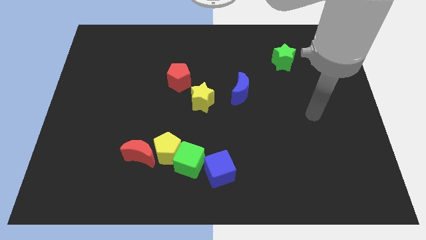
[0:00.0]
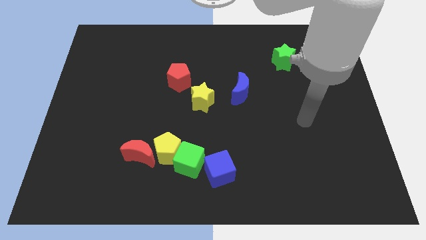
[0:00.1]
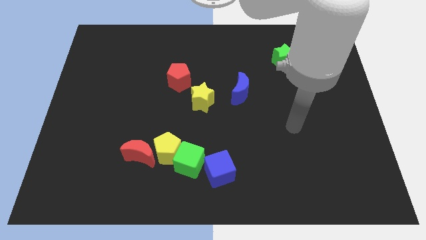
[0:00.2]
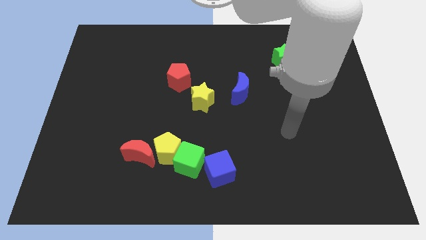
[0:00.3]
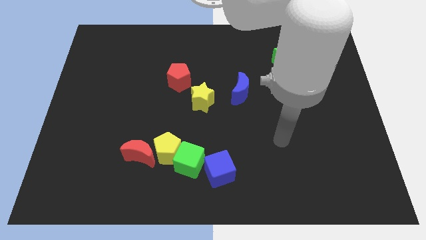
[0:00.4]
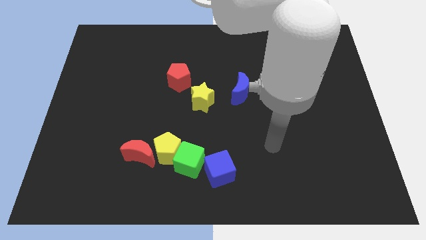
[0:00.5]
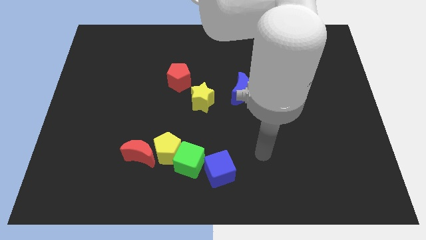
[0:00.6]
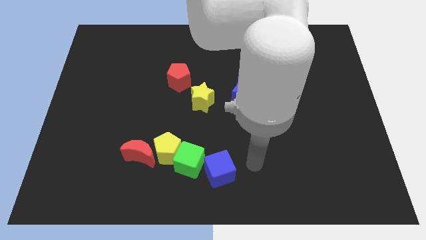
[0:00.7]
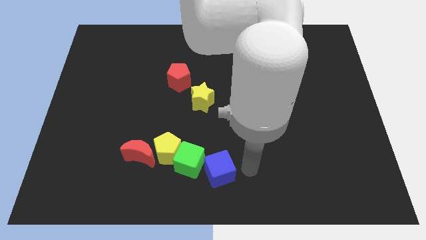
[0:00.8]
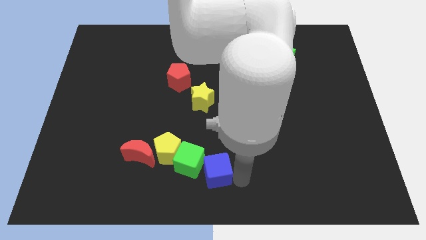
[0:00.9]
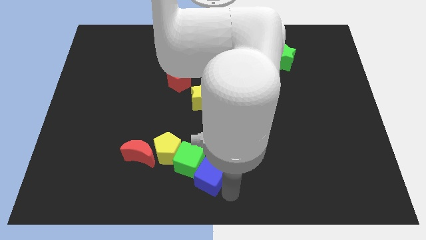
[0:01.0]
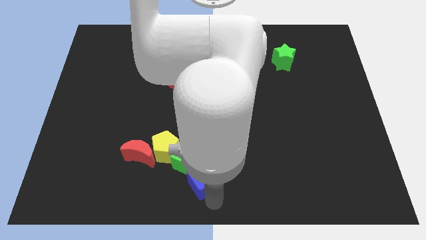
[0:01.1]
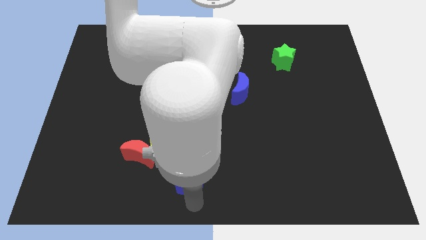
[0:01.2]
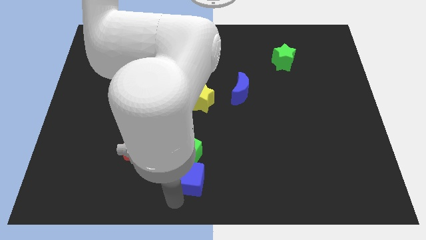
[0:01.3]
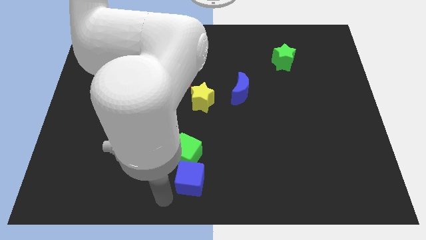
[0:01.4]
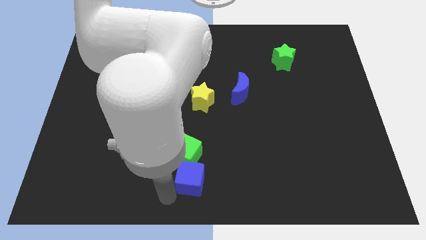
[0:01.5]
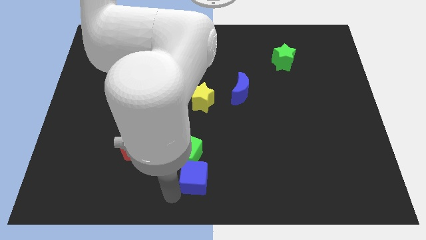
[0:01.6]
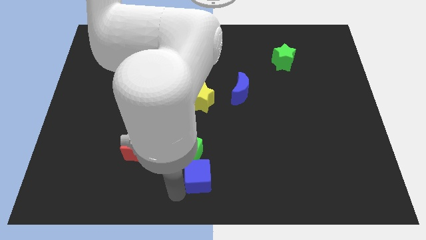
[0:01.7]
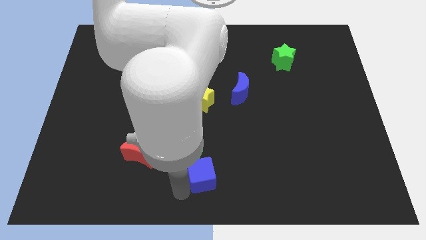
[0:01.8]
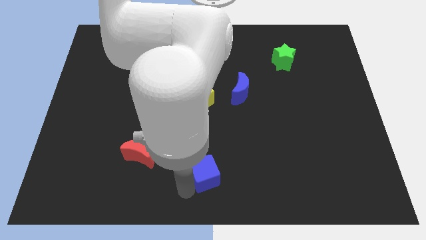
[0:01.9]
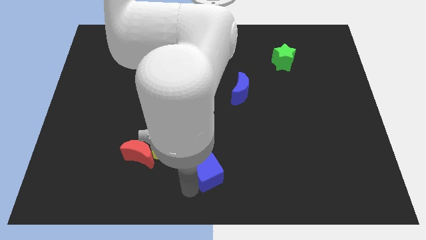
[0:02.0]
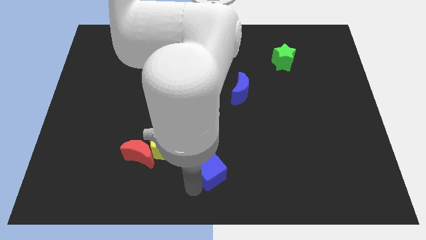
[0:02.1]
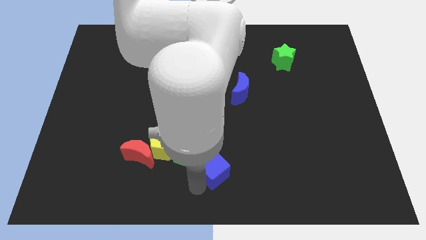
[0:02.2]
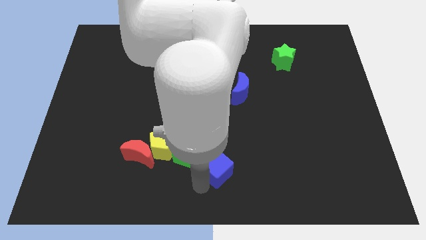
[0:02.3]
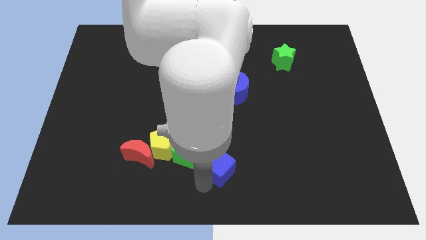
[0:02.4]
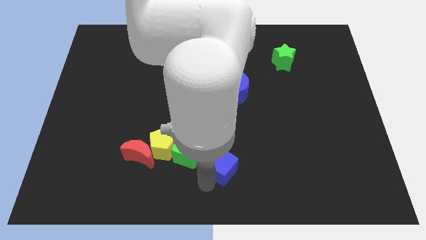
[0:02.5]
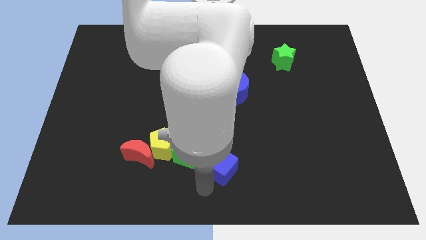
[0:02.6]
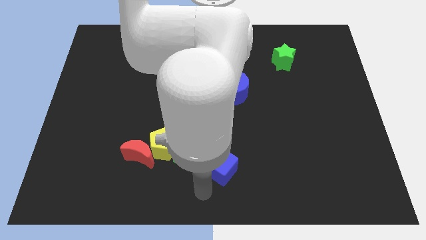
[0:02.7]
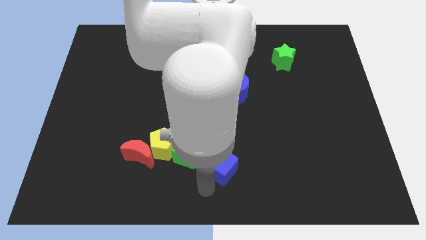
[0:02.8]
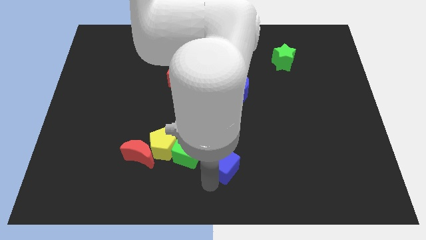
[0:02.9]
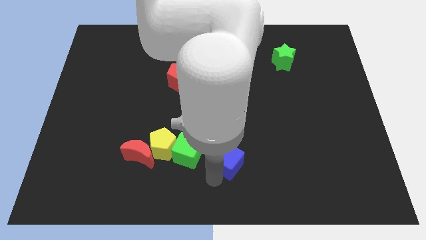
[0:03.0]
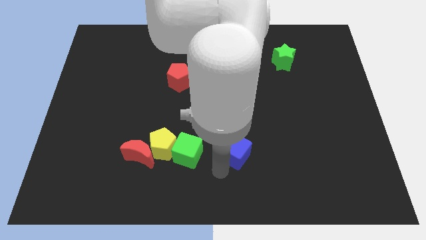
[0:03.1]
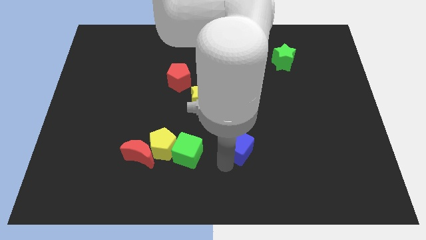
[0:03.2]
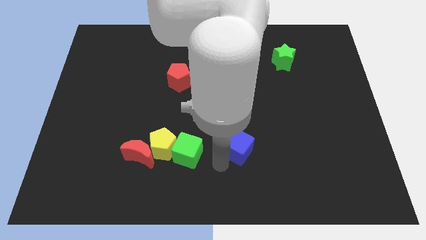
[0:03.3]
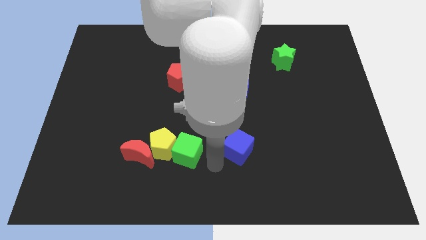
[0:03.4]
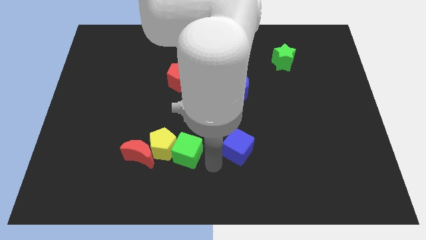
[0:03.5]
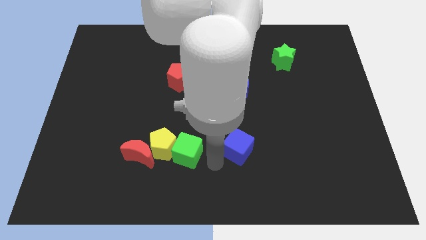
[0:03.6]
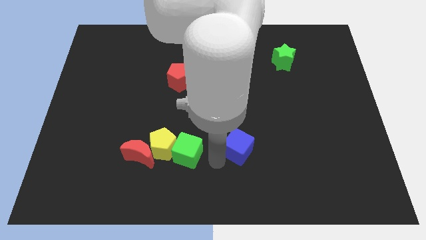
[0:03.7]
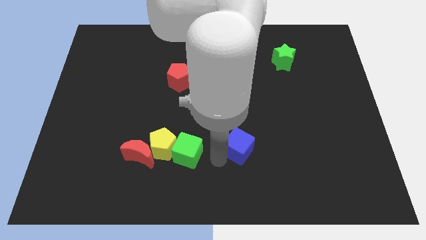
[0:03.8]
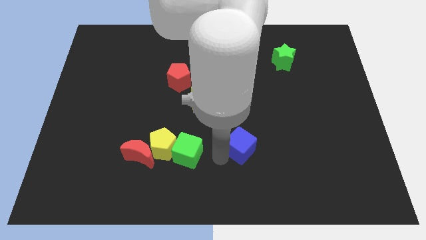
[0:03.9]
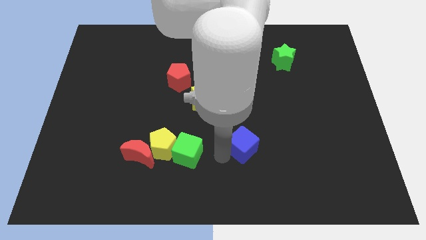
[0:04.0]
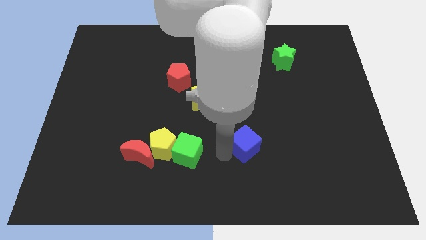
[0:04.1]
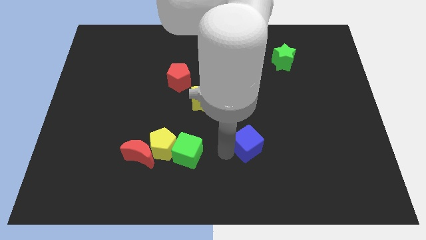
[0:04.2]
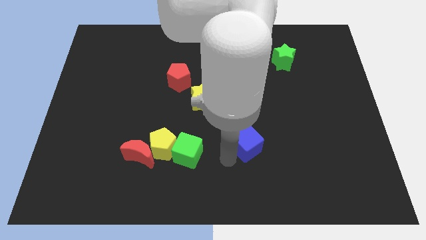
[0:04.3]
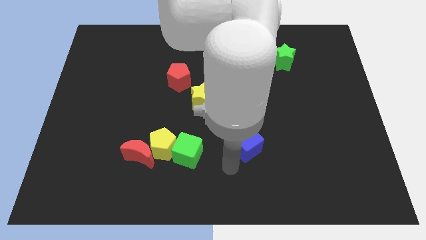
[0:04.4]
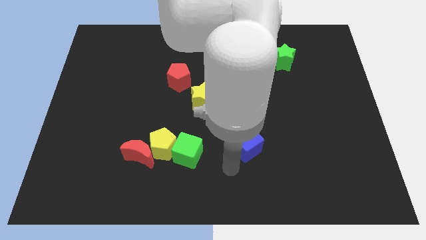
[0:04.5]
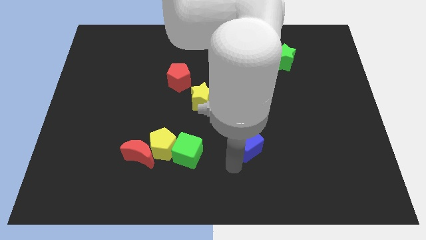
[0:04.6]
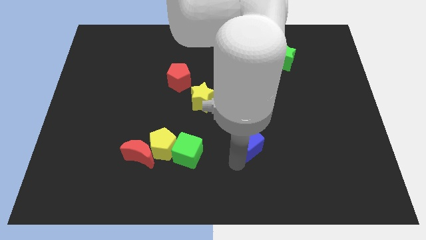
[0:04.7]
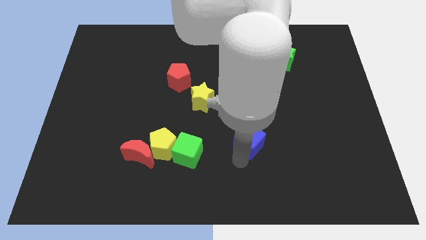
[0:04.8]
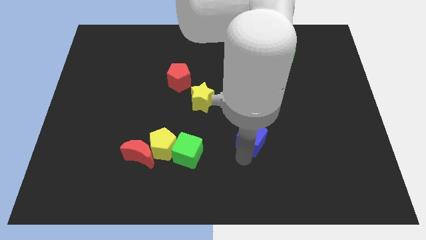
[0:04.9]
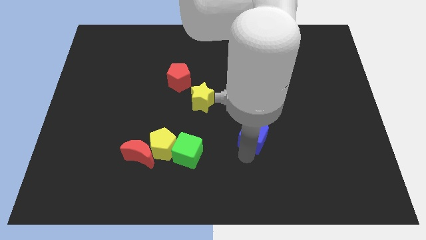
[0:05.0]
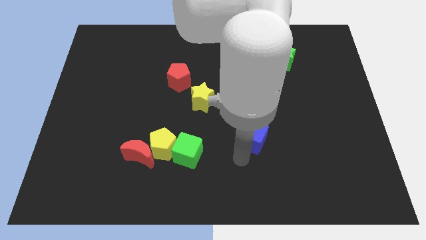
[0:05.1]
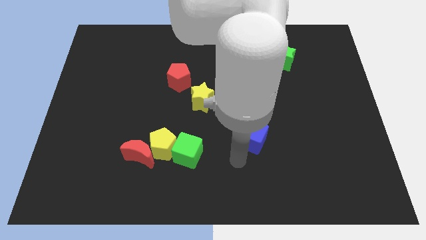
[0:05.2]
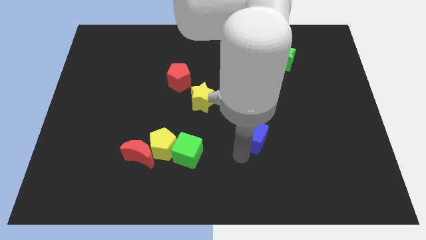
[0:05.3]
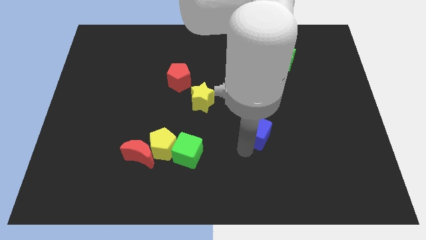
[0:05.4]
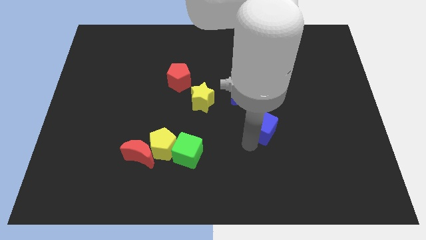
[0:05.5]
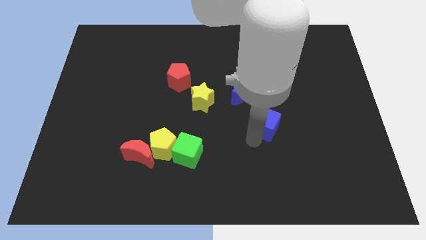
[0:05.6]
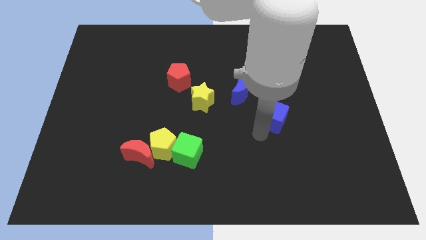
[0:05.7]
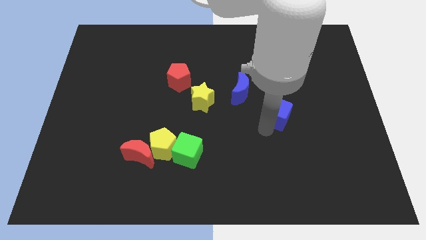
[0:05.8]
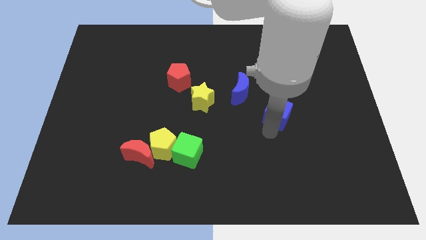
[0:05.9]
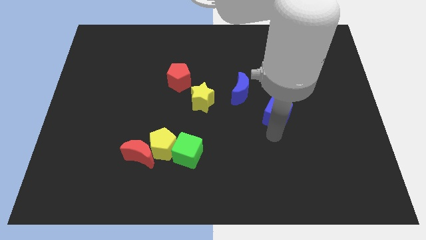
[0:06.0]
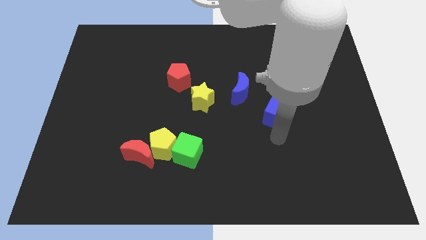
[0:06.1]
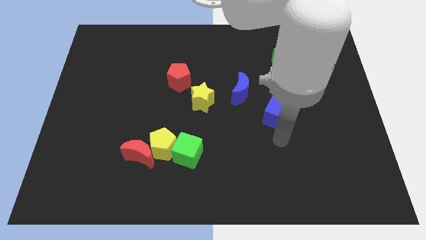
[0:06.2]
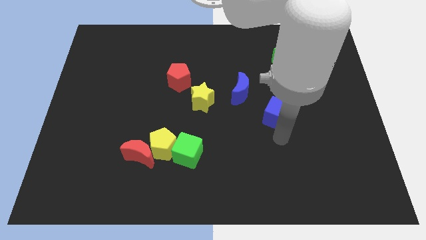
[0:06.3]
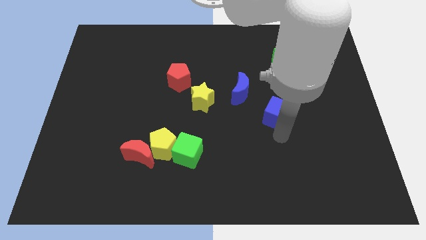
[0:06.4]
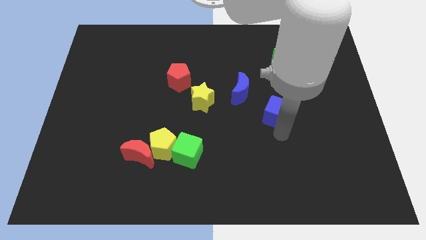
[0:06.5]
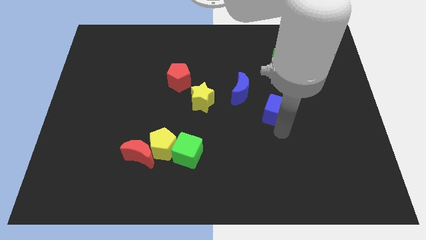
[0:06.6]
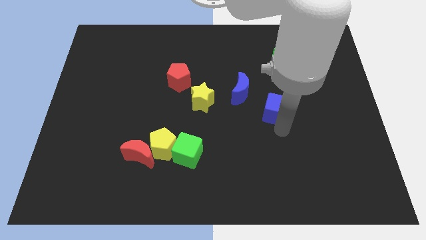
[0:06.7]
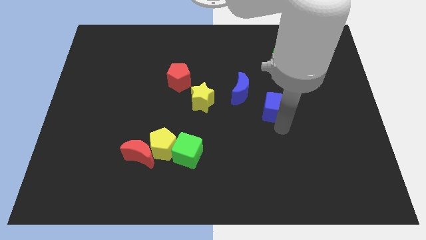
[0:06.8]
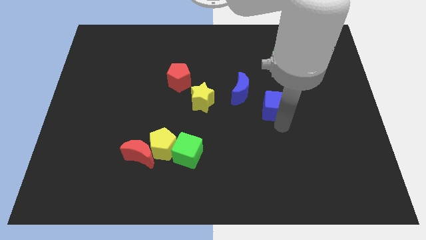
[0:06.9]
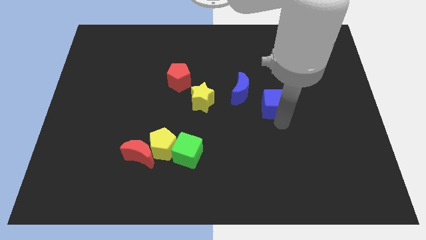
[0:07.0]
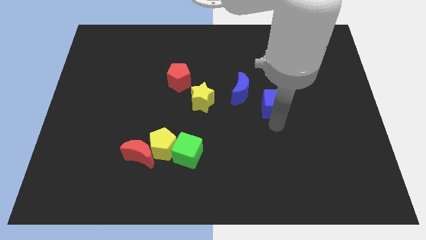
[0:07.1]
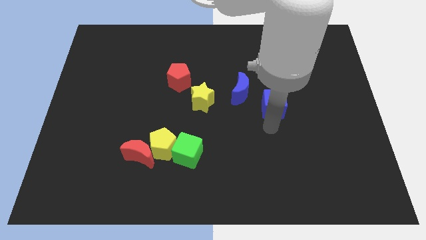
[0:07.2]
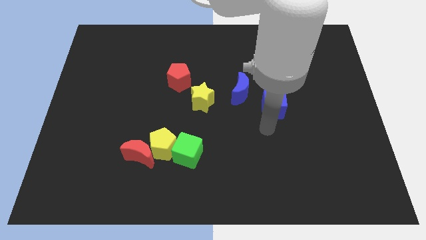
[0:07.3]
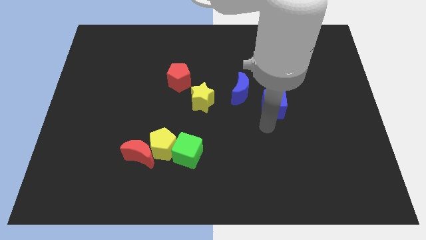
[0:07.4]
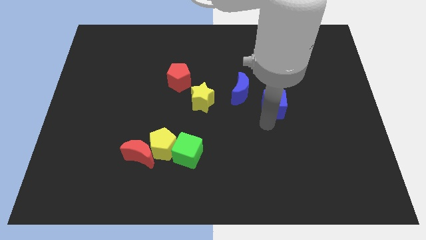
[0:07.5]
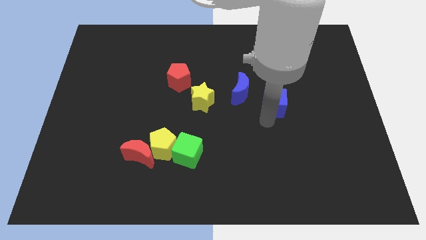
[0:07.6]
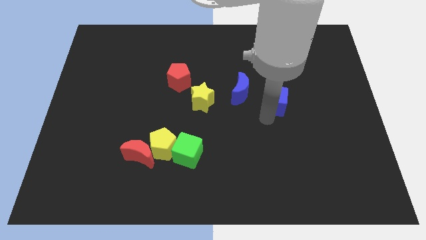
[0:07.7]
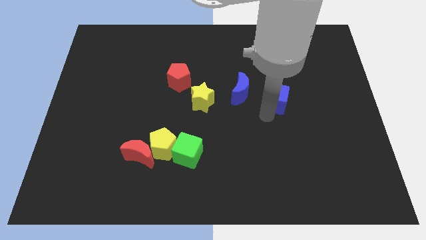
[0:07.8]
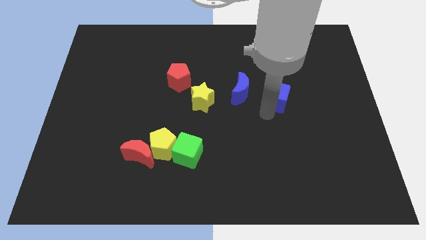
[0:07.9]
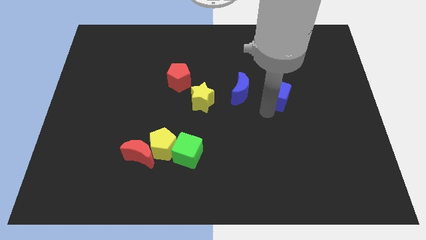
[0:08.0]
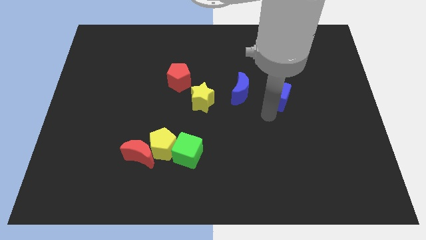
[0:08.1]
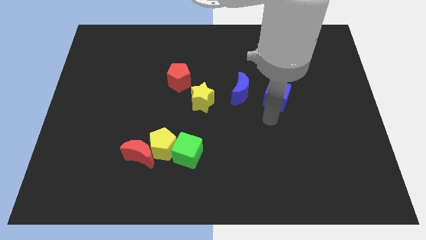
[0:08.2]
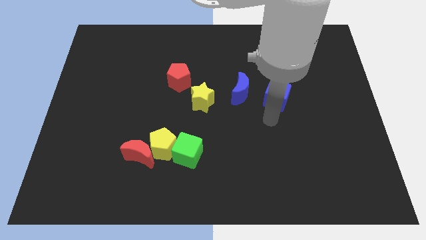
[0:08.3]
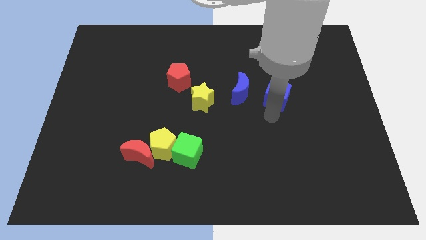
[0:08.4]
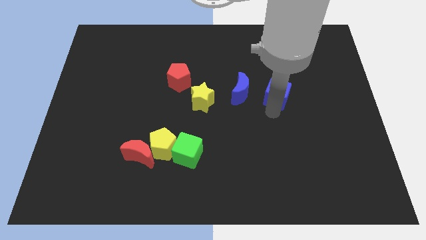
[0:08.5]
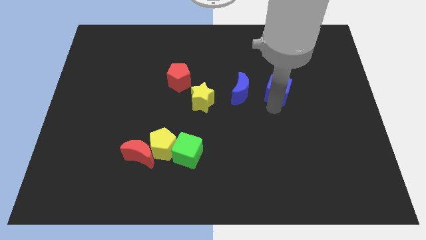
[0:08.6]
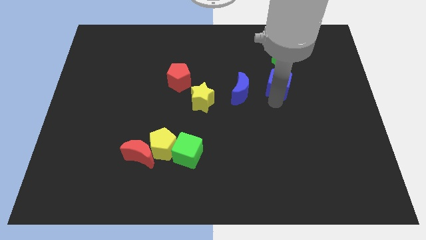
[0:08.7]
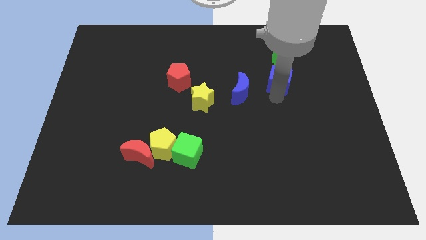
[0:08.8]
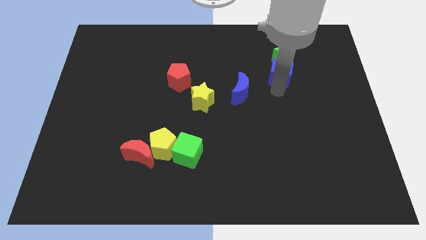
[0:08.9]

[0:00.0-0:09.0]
slide the blue cube close to the green star
